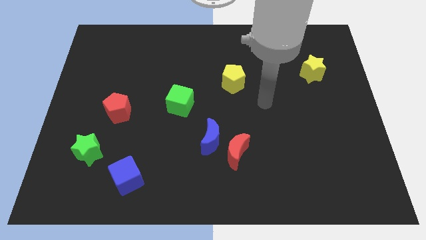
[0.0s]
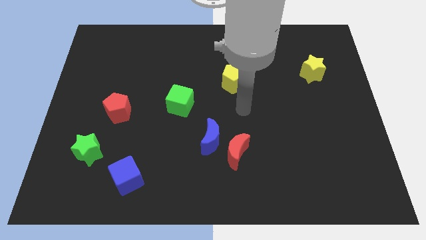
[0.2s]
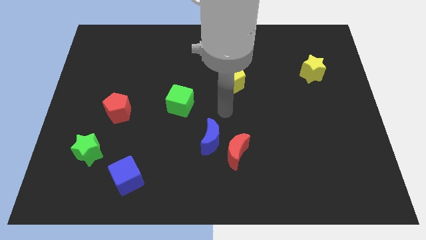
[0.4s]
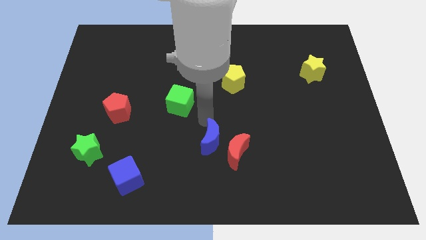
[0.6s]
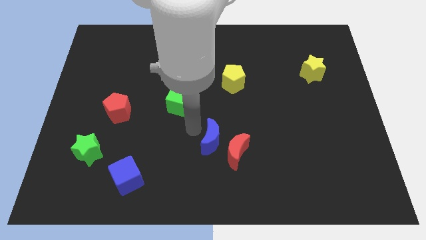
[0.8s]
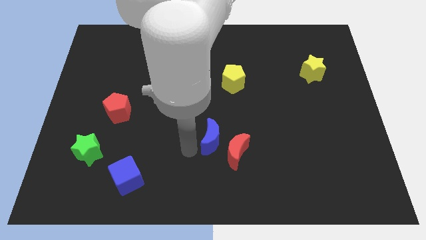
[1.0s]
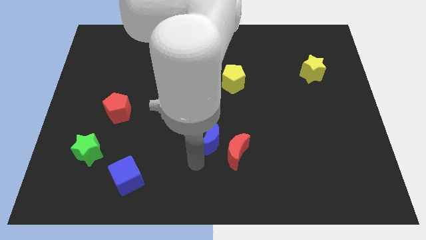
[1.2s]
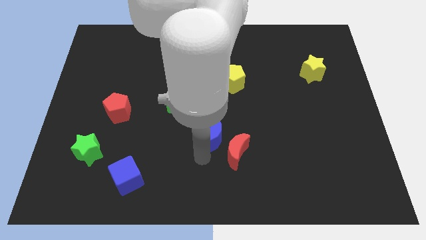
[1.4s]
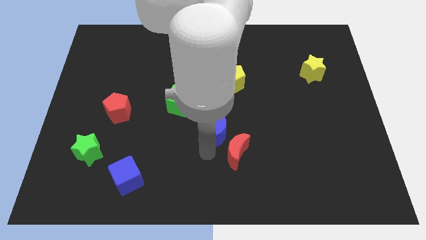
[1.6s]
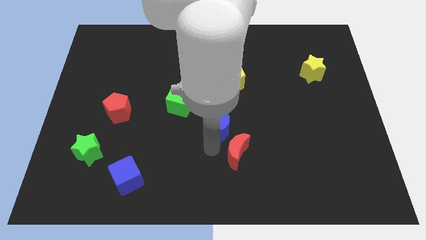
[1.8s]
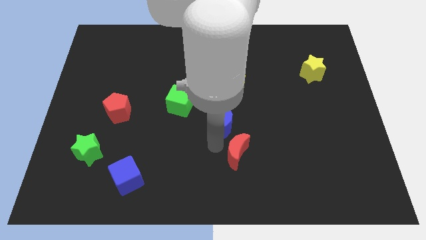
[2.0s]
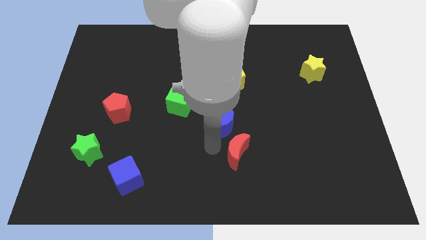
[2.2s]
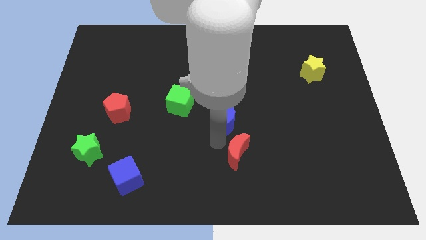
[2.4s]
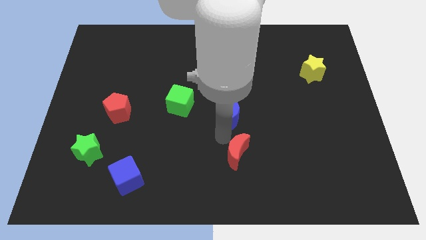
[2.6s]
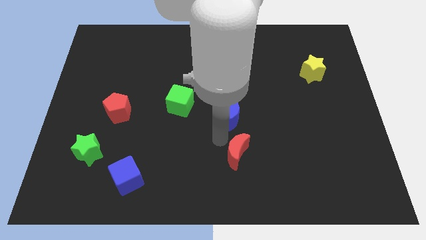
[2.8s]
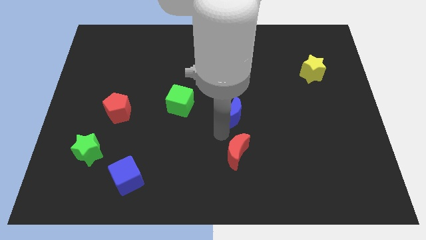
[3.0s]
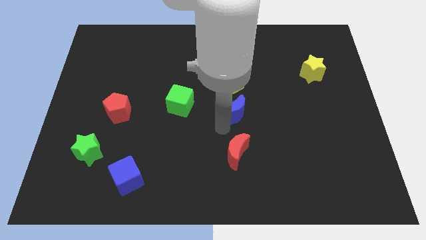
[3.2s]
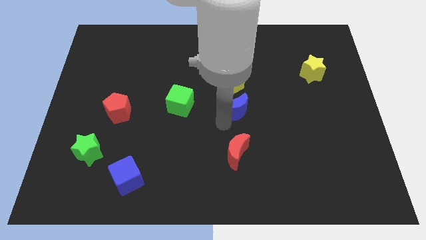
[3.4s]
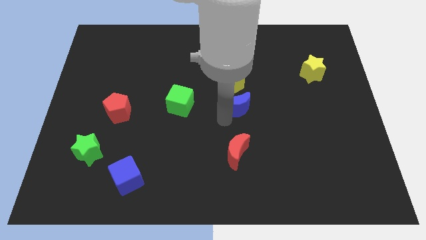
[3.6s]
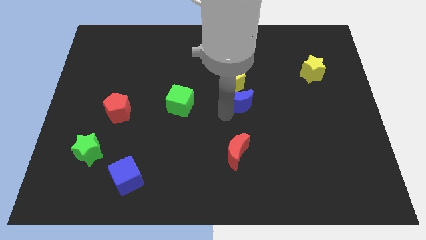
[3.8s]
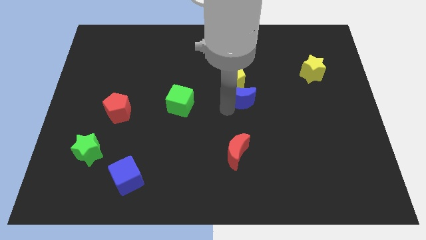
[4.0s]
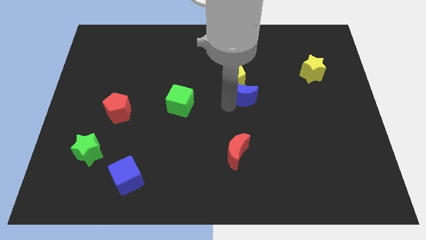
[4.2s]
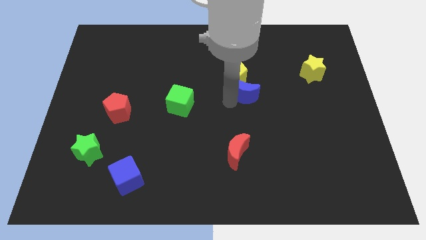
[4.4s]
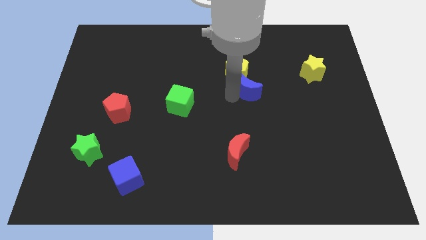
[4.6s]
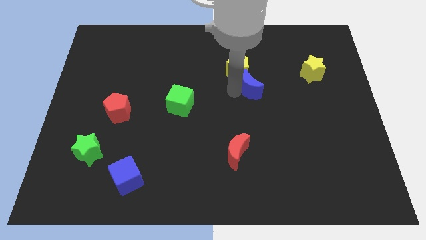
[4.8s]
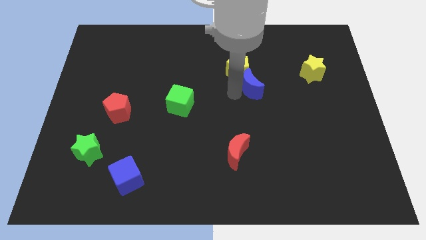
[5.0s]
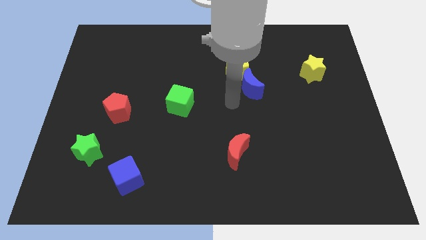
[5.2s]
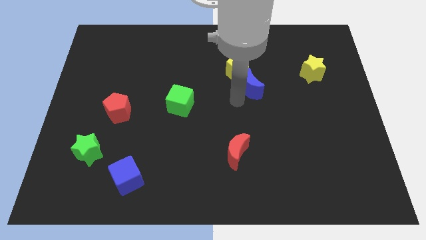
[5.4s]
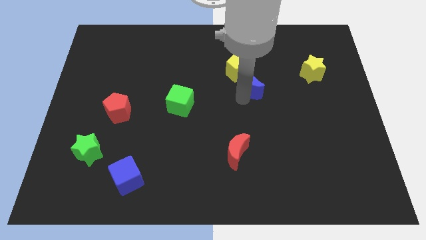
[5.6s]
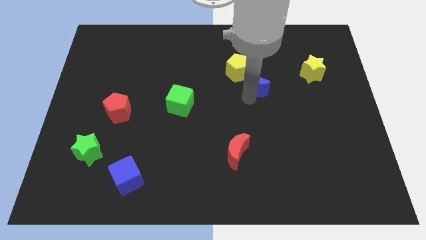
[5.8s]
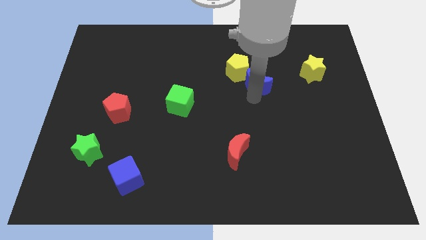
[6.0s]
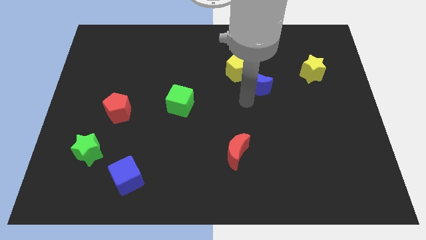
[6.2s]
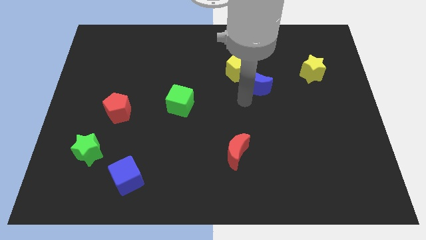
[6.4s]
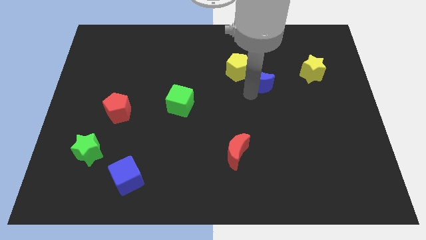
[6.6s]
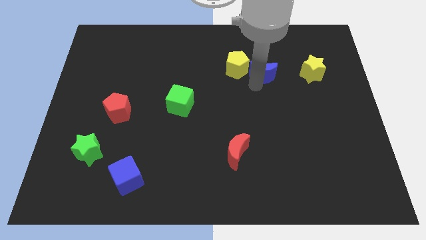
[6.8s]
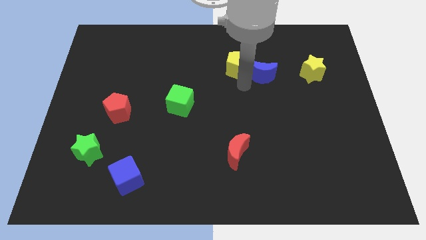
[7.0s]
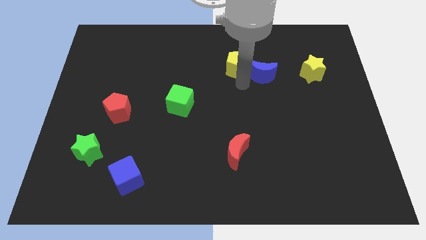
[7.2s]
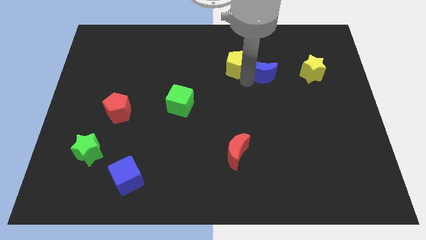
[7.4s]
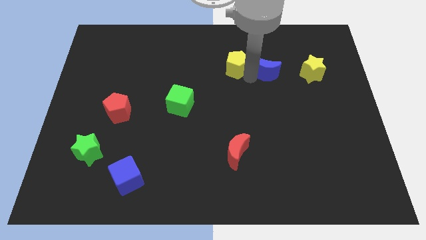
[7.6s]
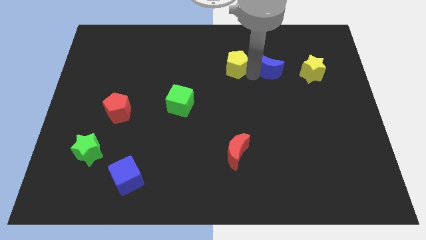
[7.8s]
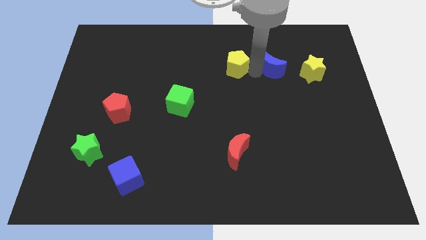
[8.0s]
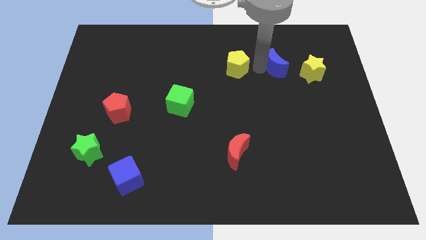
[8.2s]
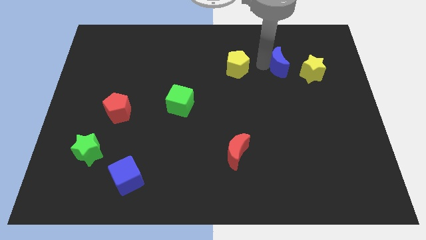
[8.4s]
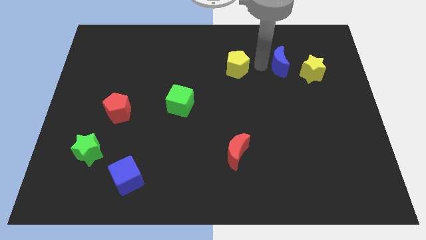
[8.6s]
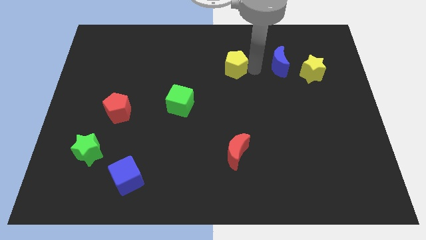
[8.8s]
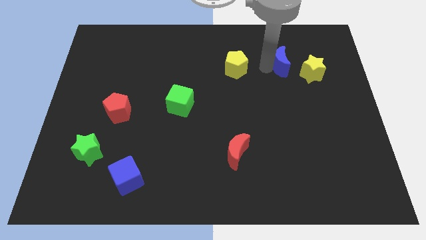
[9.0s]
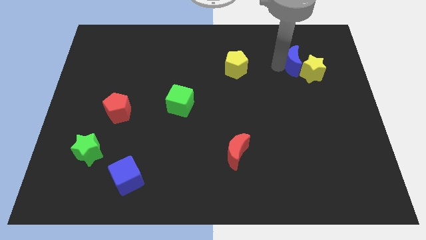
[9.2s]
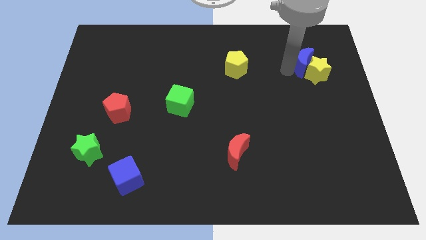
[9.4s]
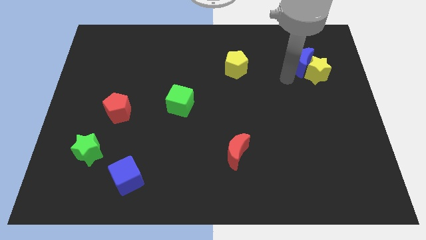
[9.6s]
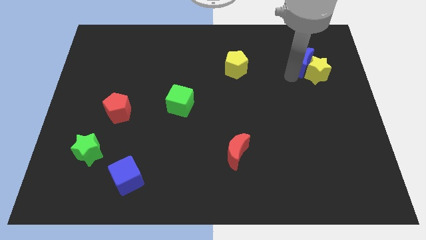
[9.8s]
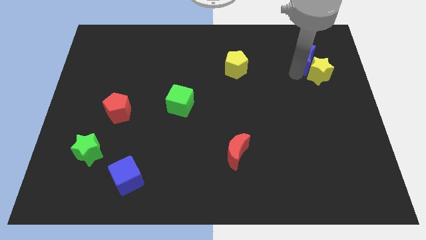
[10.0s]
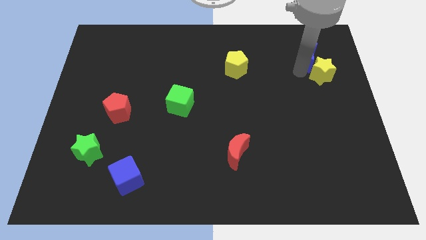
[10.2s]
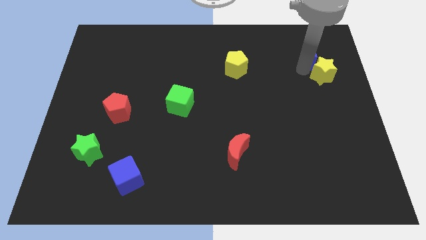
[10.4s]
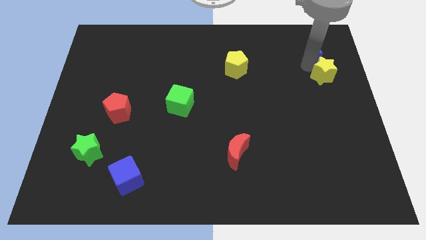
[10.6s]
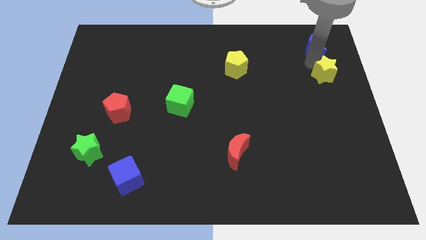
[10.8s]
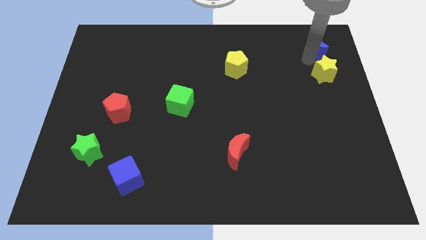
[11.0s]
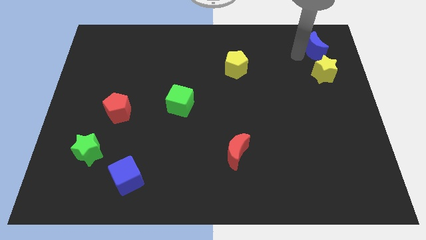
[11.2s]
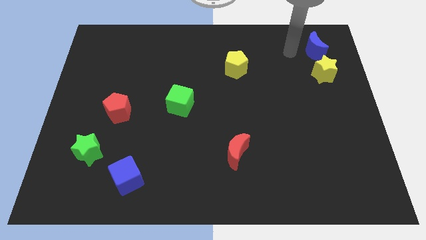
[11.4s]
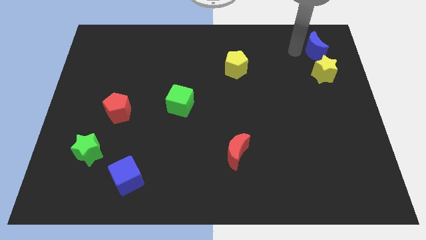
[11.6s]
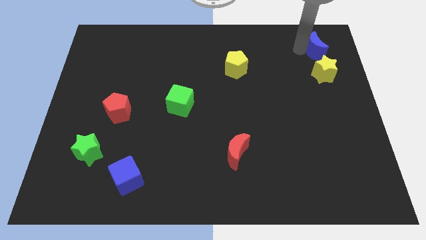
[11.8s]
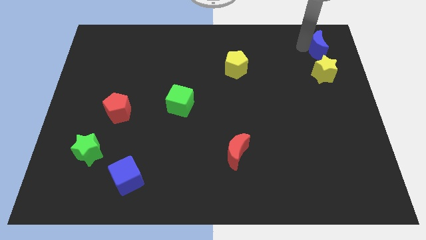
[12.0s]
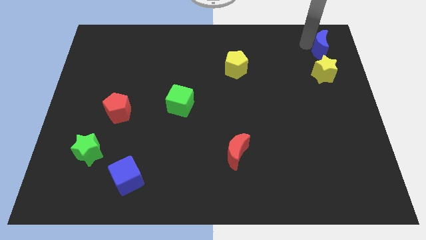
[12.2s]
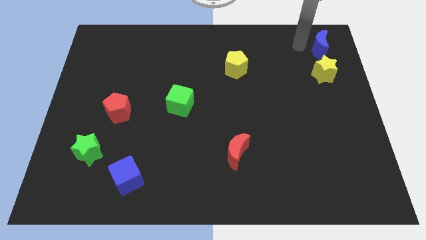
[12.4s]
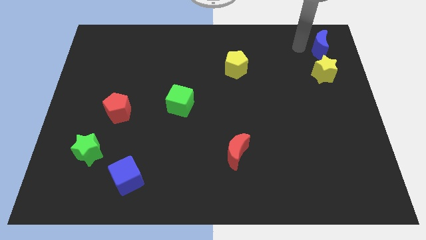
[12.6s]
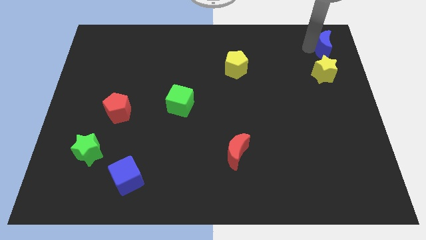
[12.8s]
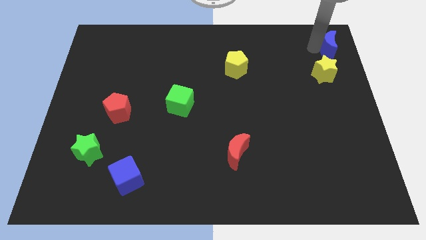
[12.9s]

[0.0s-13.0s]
move the blue moon to the upper right corner
